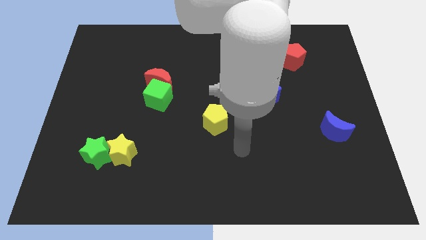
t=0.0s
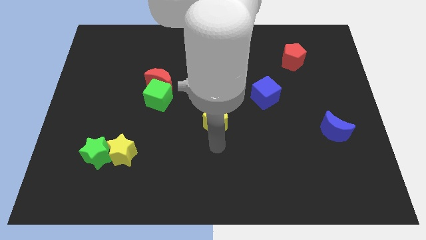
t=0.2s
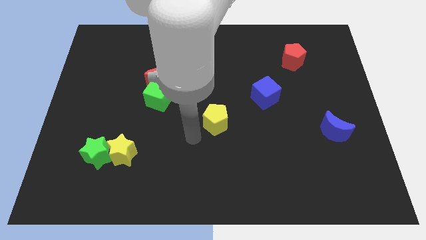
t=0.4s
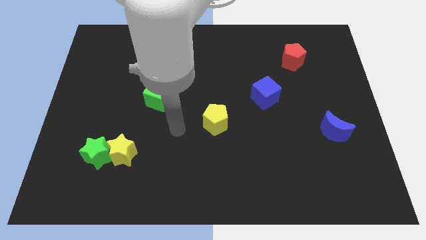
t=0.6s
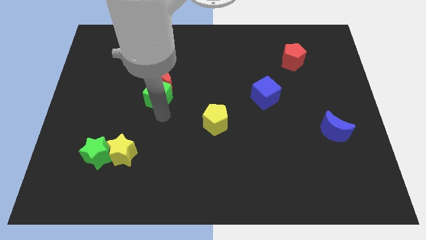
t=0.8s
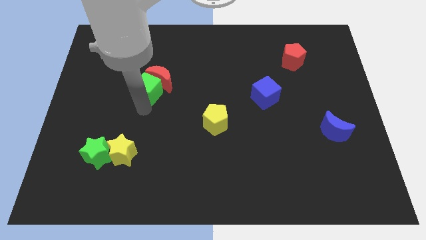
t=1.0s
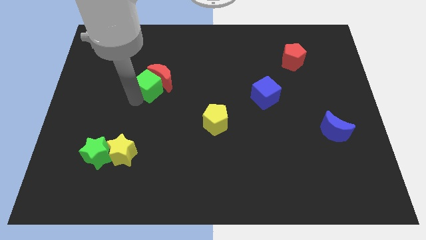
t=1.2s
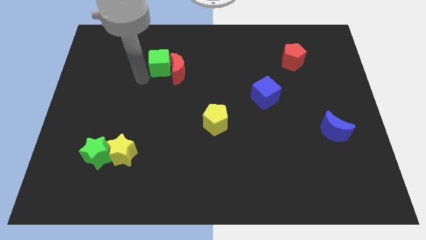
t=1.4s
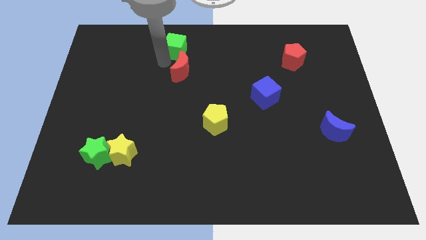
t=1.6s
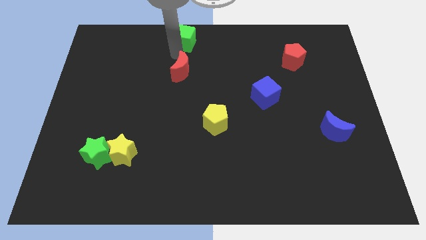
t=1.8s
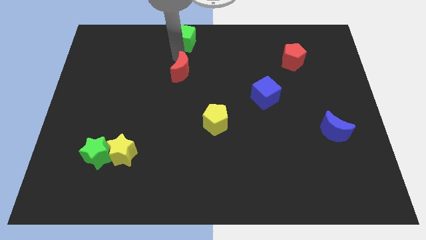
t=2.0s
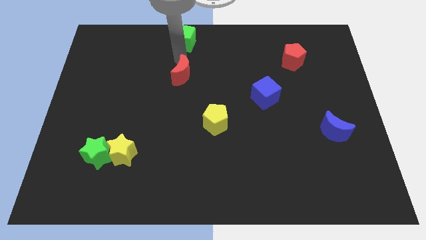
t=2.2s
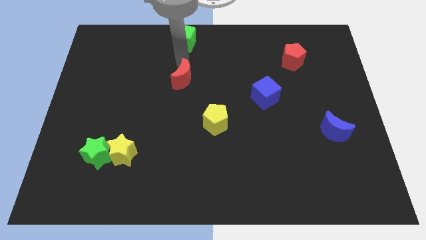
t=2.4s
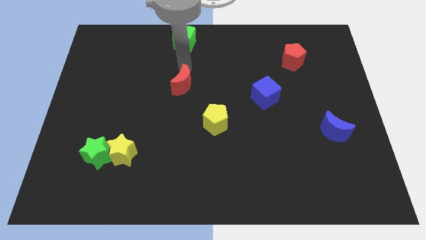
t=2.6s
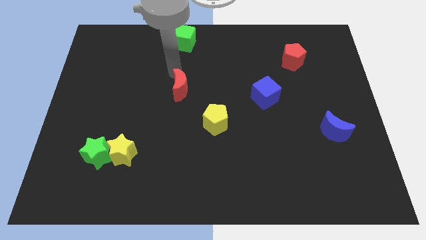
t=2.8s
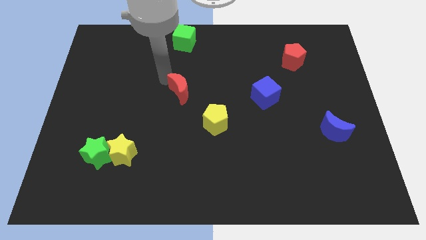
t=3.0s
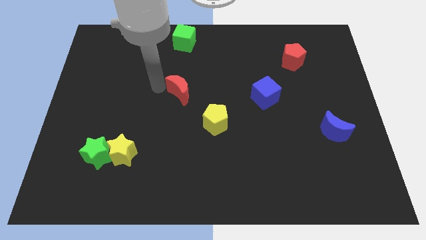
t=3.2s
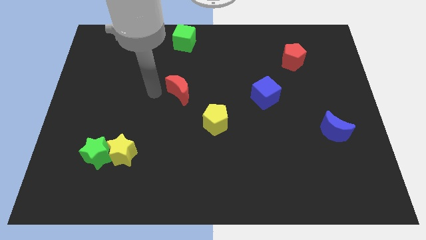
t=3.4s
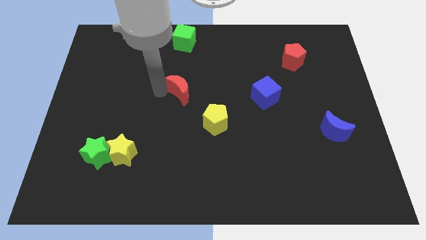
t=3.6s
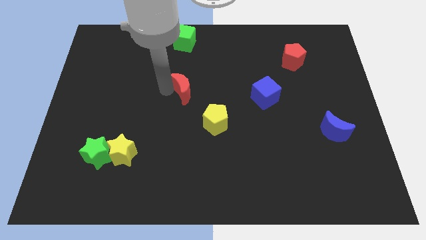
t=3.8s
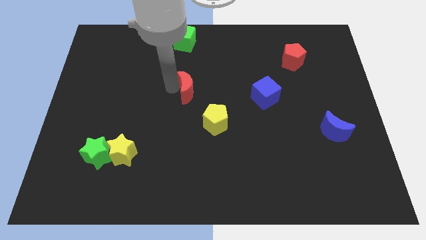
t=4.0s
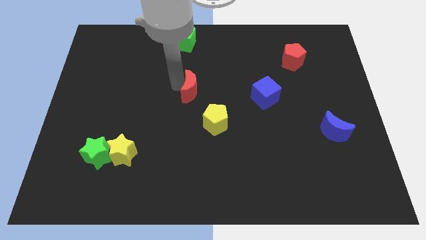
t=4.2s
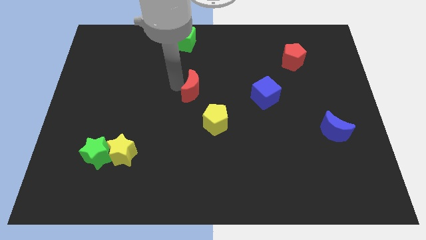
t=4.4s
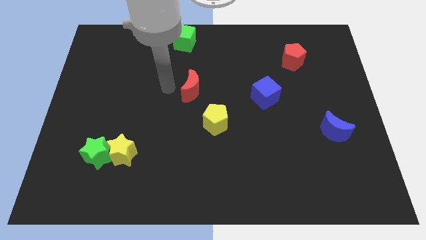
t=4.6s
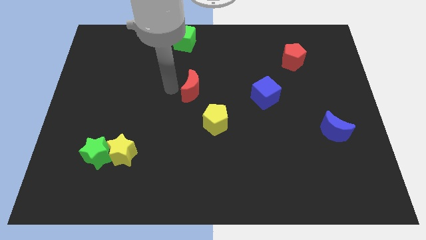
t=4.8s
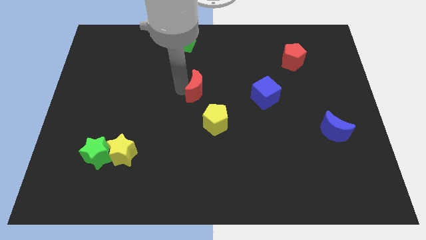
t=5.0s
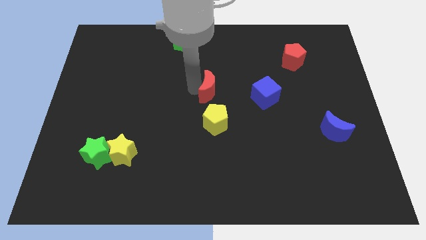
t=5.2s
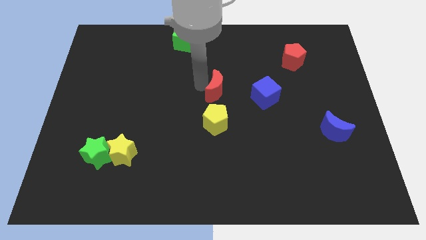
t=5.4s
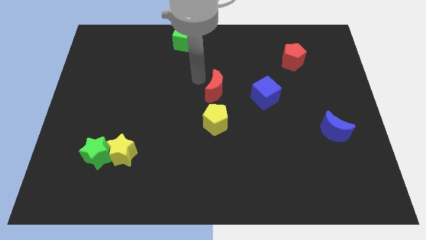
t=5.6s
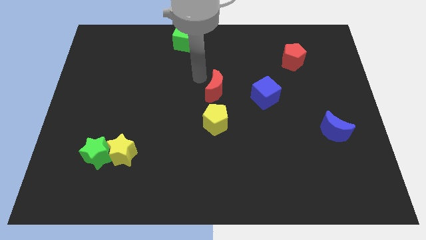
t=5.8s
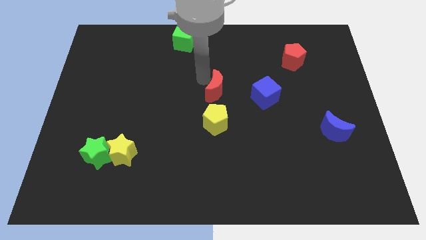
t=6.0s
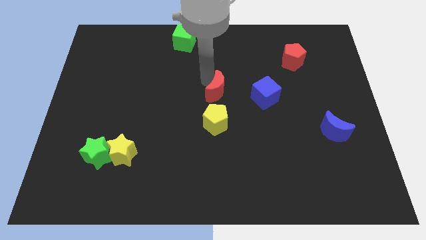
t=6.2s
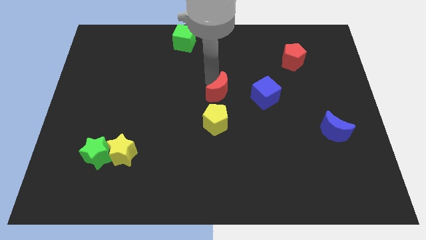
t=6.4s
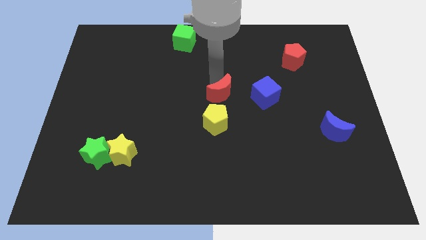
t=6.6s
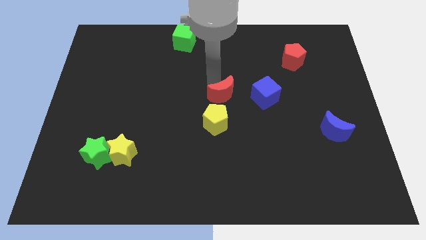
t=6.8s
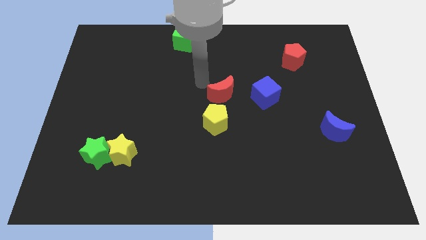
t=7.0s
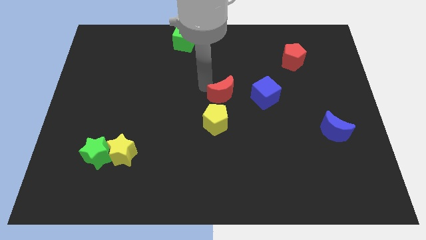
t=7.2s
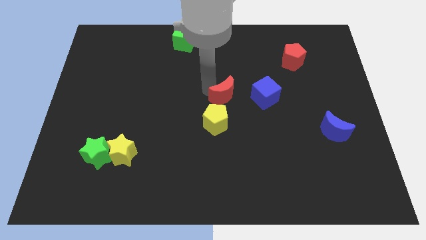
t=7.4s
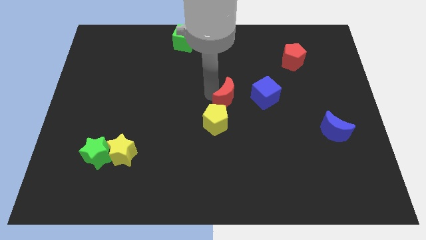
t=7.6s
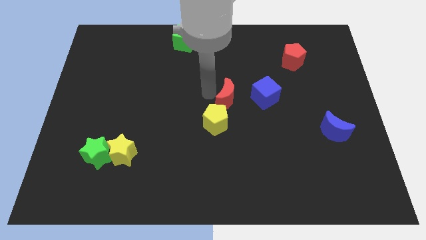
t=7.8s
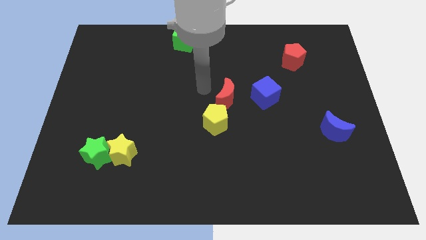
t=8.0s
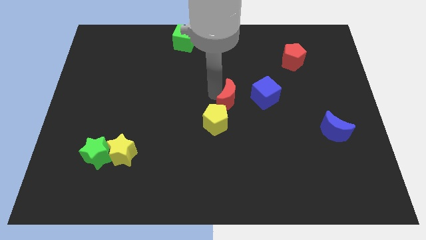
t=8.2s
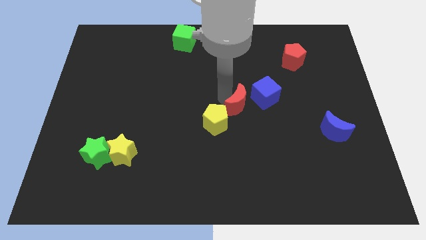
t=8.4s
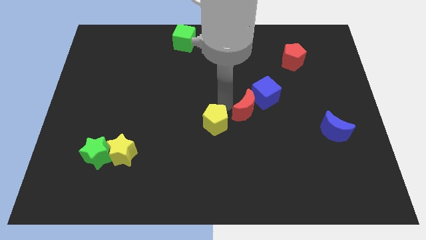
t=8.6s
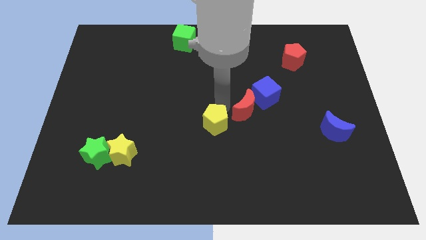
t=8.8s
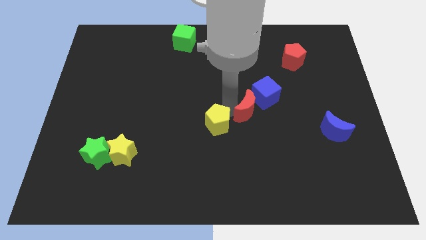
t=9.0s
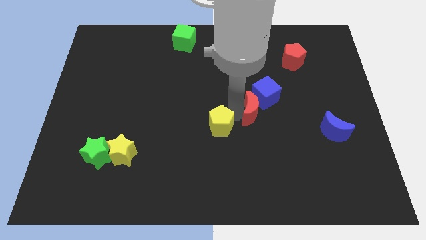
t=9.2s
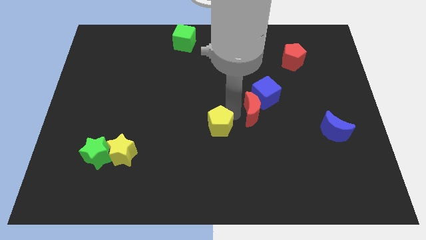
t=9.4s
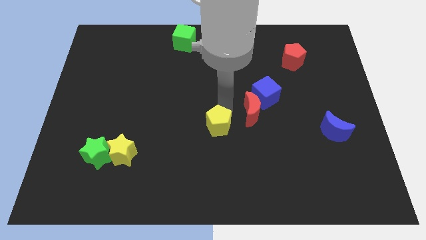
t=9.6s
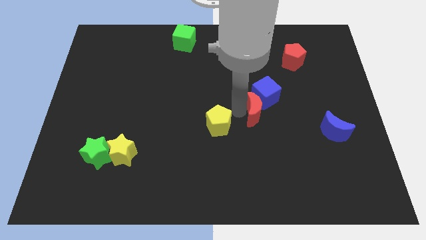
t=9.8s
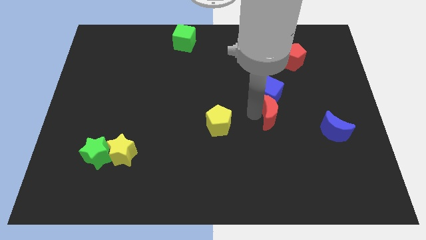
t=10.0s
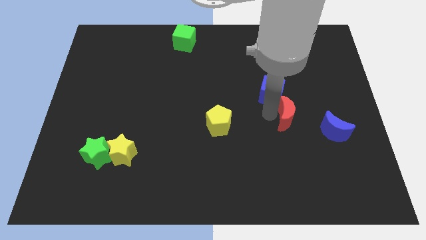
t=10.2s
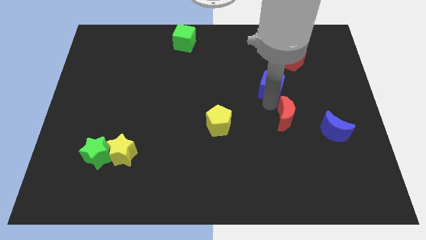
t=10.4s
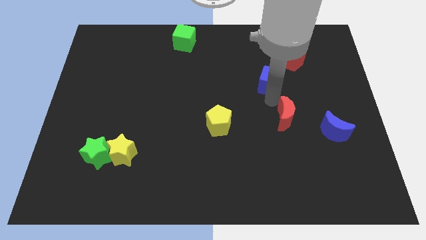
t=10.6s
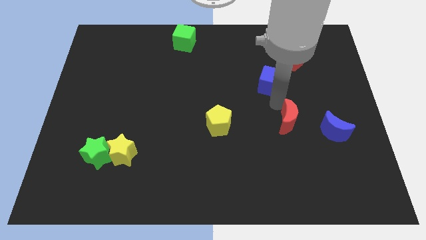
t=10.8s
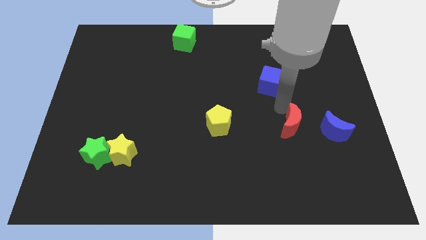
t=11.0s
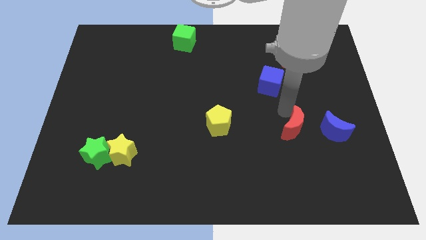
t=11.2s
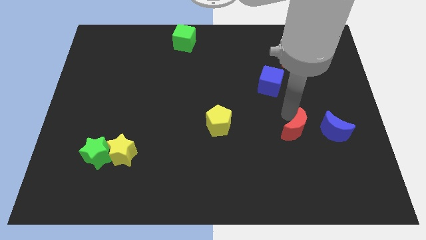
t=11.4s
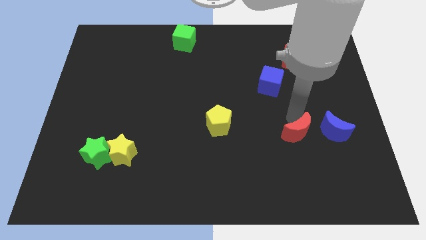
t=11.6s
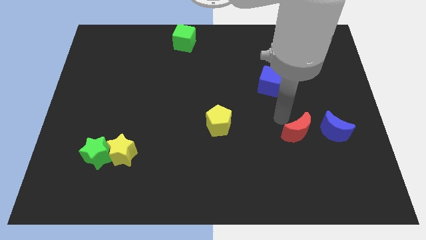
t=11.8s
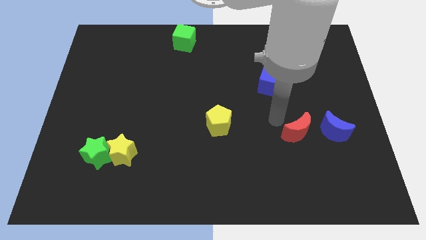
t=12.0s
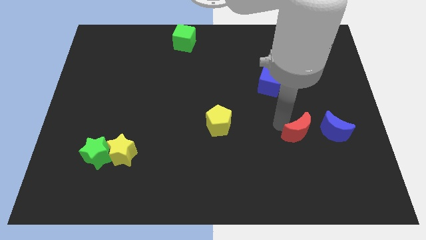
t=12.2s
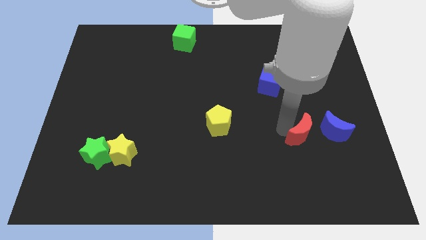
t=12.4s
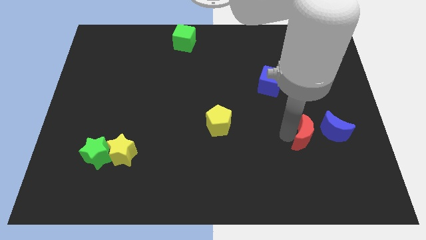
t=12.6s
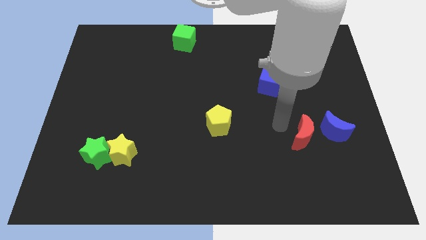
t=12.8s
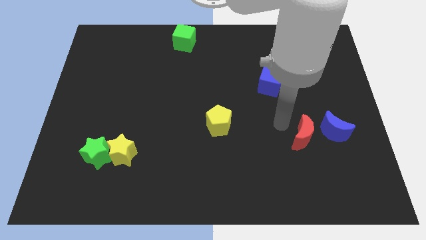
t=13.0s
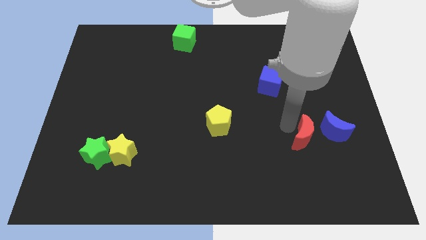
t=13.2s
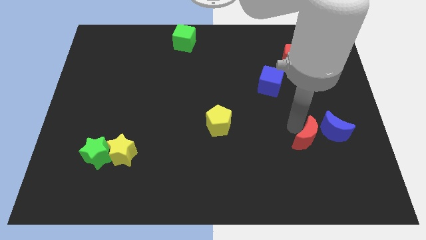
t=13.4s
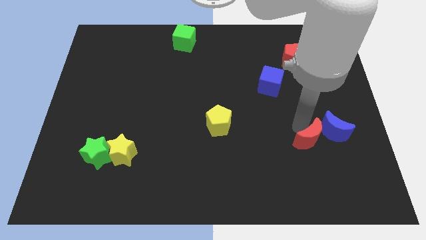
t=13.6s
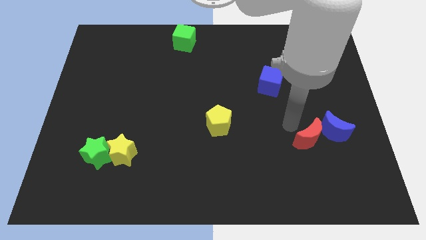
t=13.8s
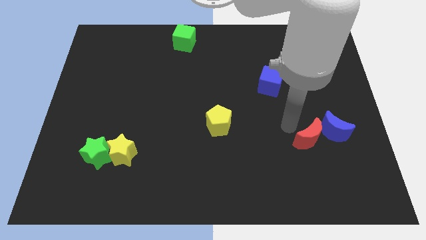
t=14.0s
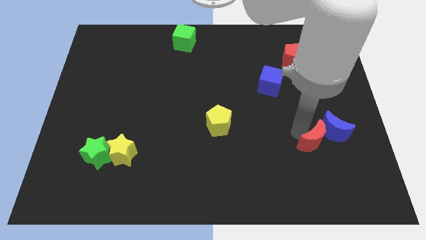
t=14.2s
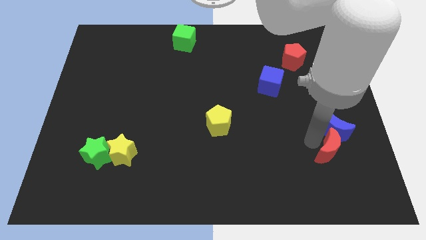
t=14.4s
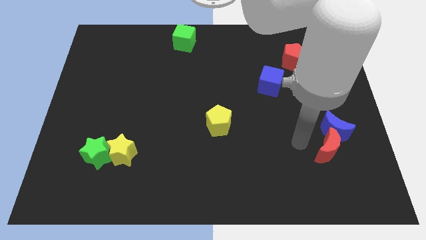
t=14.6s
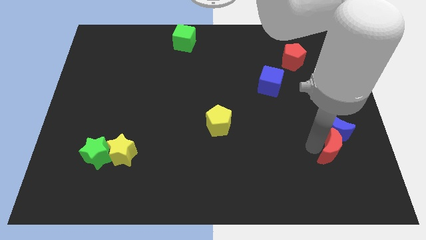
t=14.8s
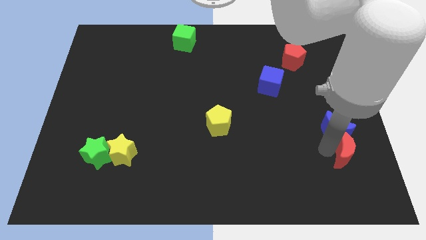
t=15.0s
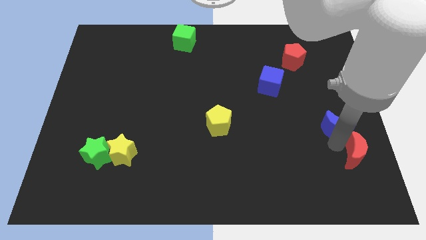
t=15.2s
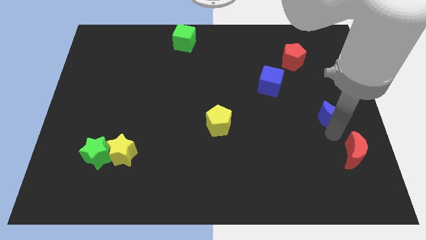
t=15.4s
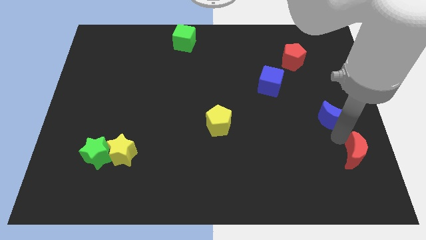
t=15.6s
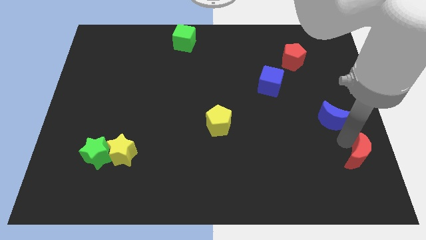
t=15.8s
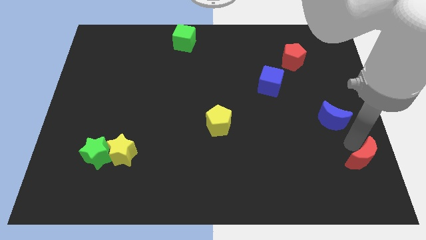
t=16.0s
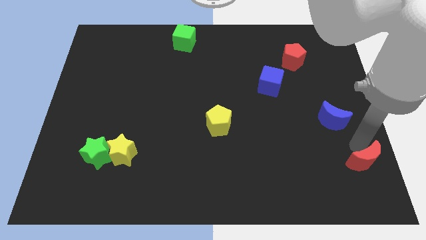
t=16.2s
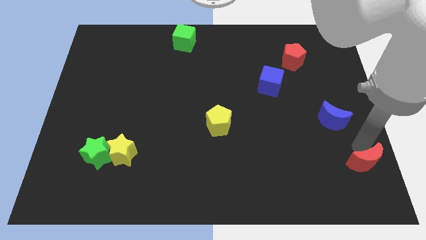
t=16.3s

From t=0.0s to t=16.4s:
push the red moon to the bottom right of the board
